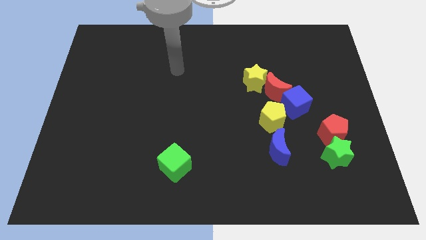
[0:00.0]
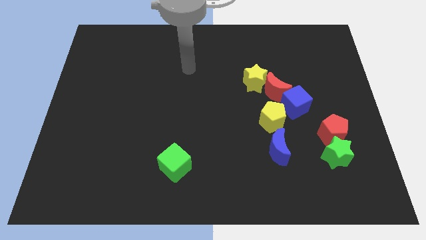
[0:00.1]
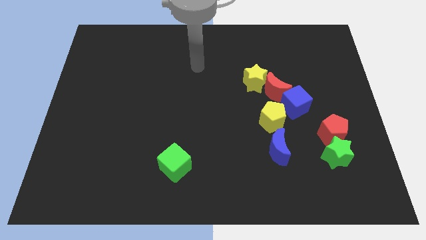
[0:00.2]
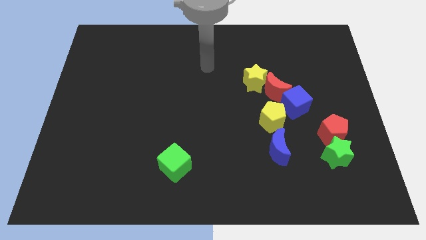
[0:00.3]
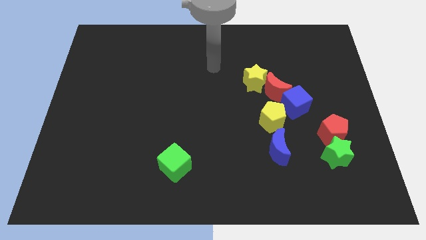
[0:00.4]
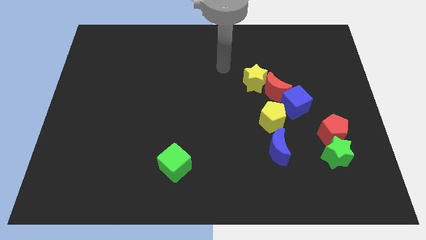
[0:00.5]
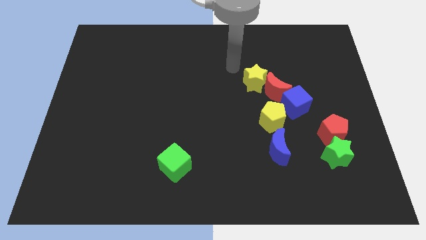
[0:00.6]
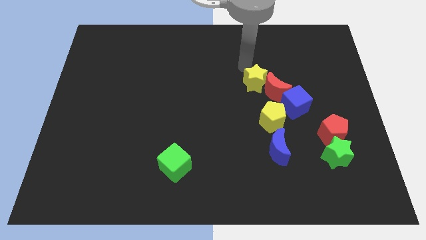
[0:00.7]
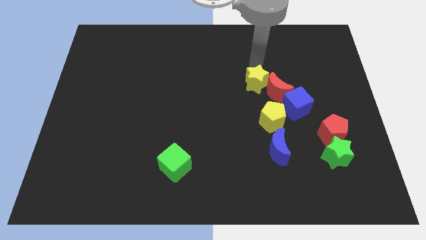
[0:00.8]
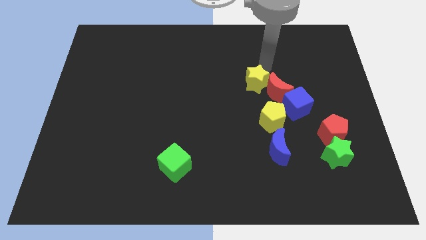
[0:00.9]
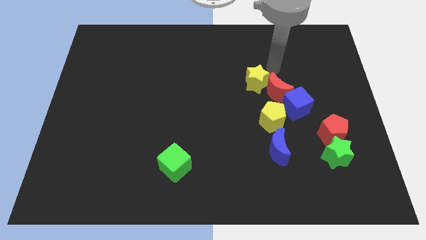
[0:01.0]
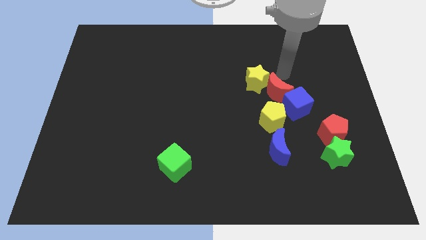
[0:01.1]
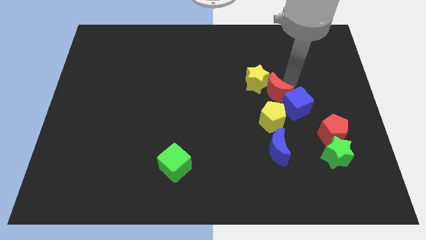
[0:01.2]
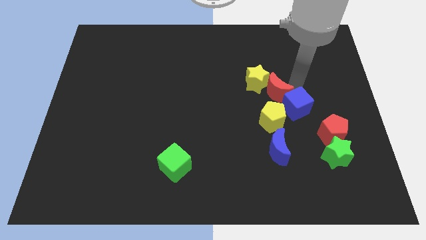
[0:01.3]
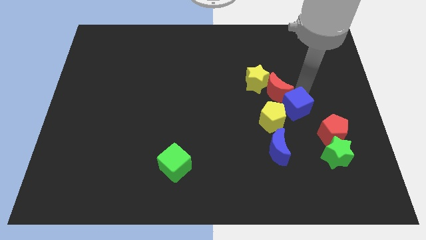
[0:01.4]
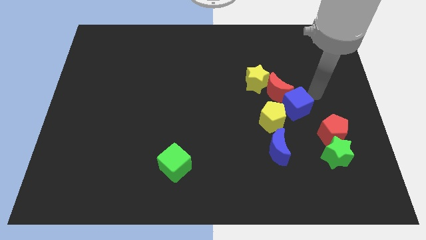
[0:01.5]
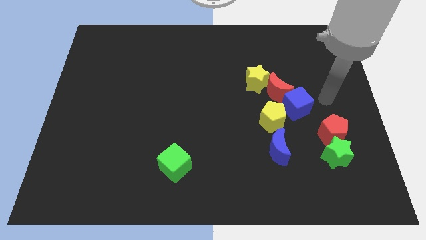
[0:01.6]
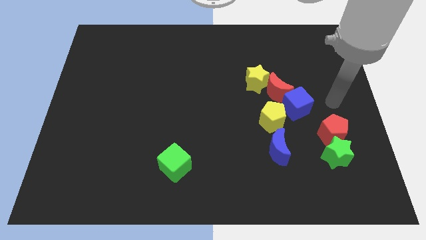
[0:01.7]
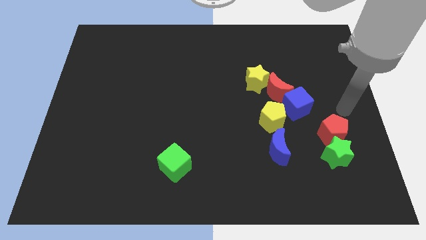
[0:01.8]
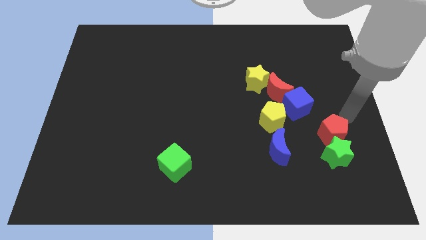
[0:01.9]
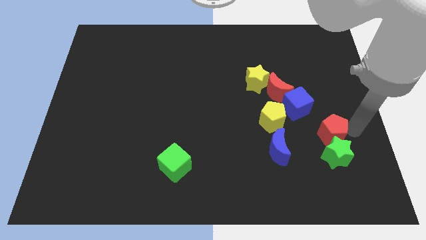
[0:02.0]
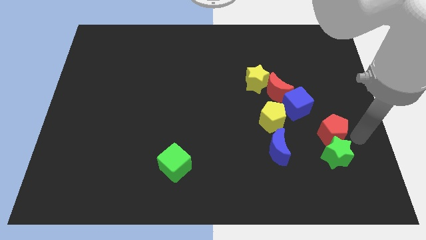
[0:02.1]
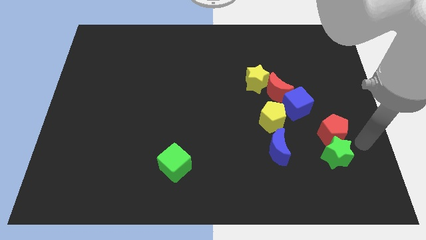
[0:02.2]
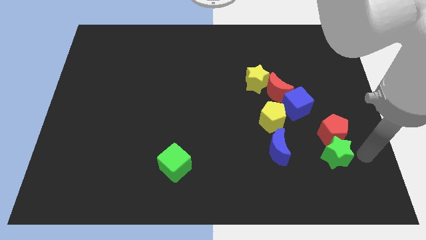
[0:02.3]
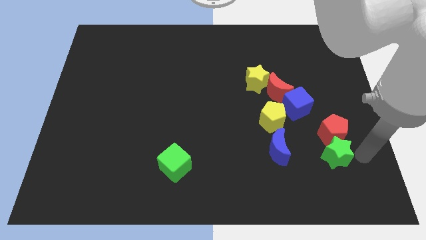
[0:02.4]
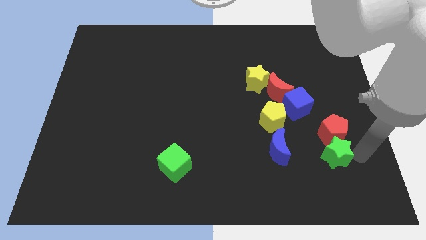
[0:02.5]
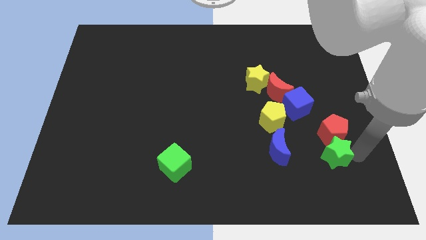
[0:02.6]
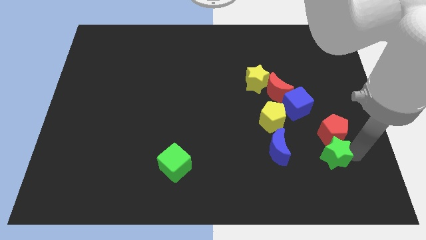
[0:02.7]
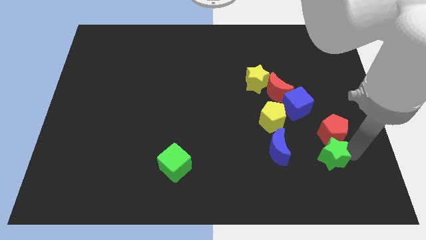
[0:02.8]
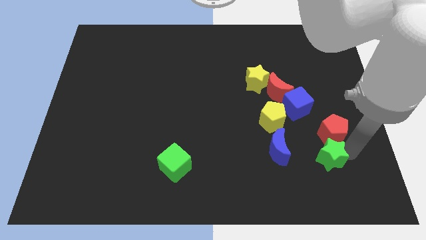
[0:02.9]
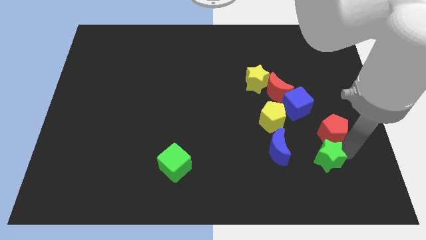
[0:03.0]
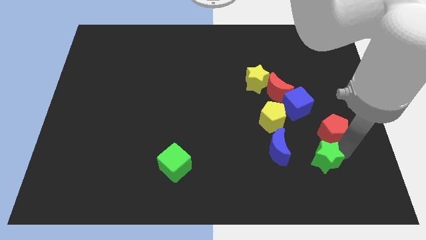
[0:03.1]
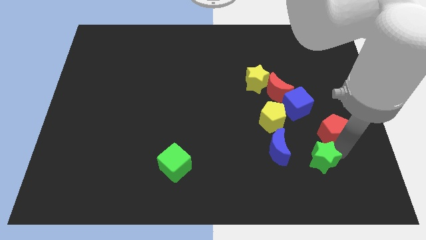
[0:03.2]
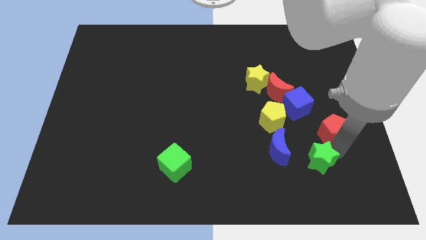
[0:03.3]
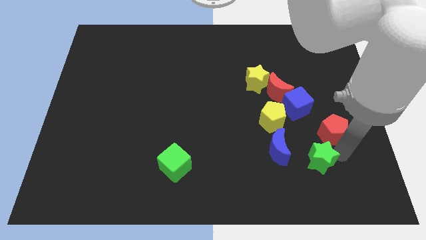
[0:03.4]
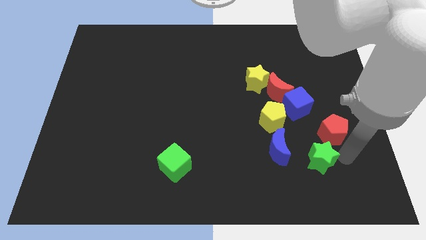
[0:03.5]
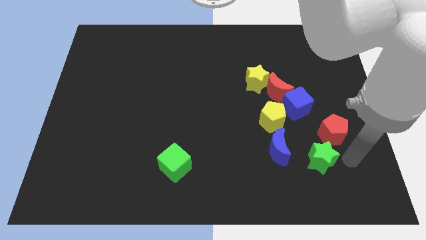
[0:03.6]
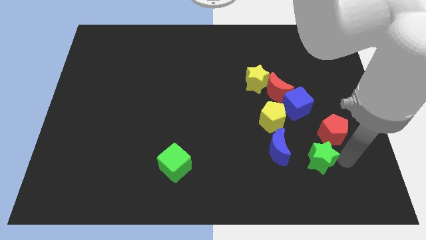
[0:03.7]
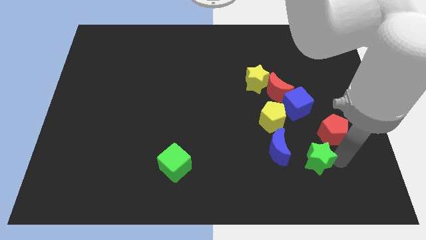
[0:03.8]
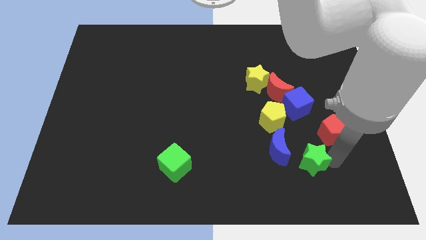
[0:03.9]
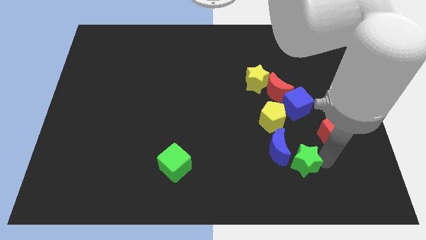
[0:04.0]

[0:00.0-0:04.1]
slightly push the green star to the left

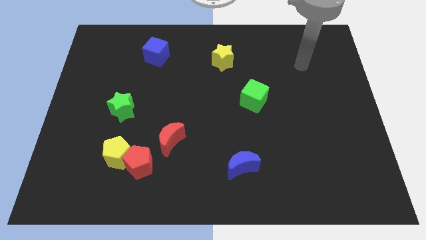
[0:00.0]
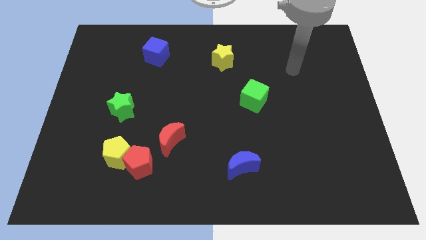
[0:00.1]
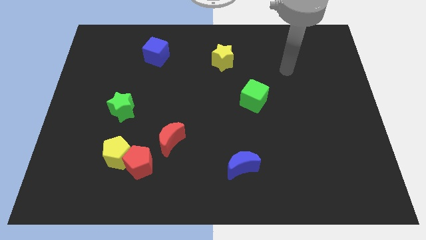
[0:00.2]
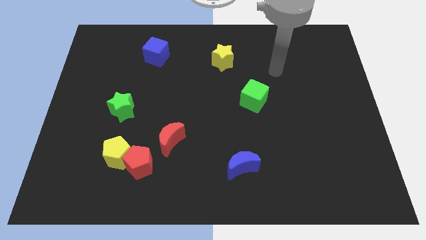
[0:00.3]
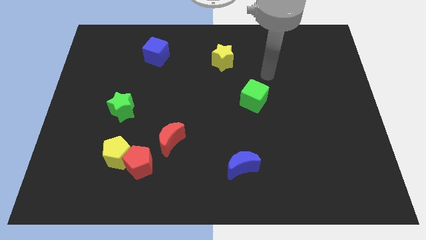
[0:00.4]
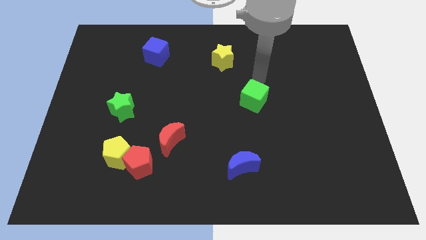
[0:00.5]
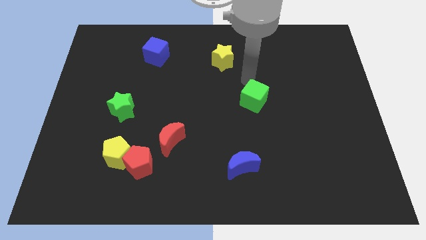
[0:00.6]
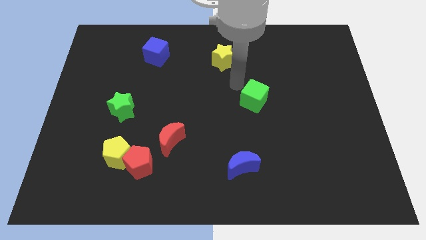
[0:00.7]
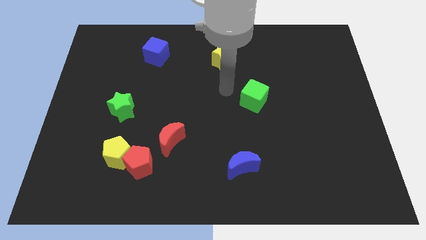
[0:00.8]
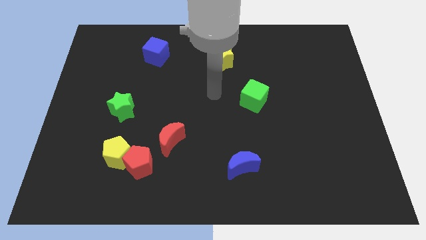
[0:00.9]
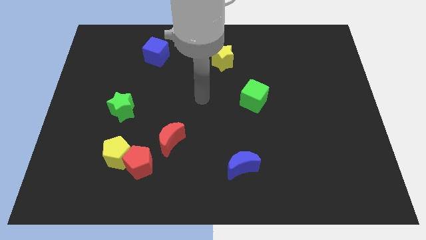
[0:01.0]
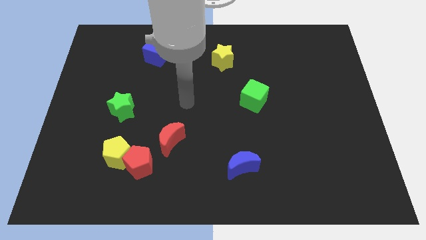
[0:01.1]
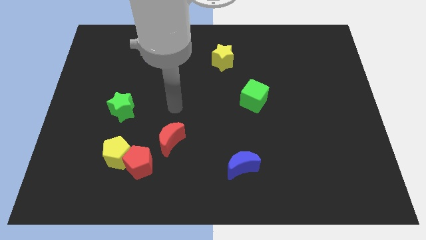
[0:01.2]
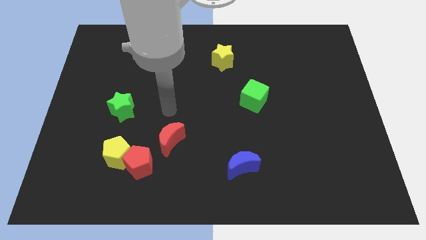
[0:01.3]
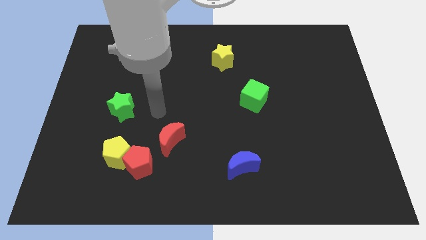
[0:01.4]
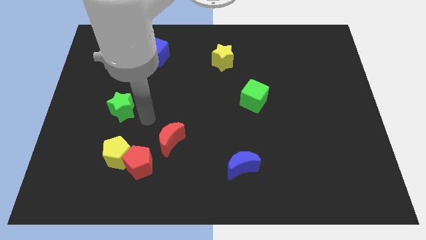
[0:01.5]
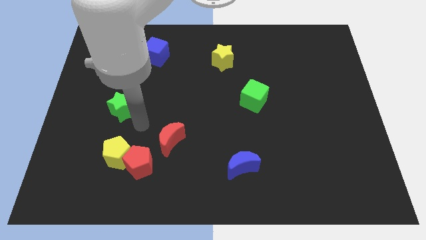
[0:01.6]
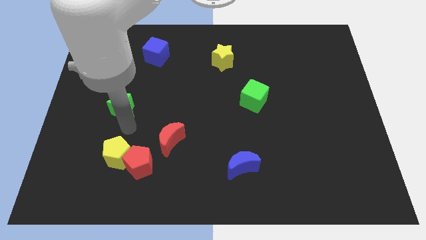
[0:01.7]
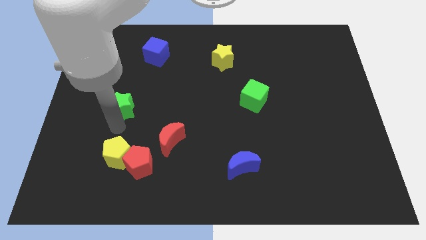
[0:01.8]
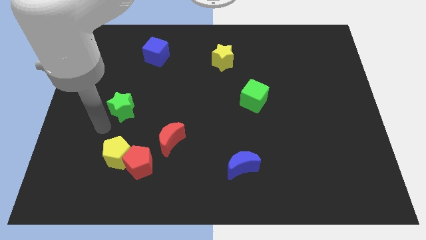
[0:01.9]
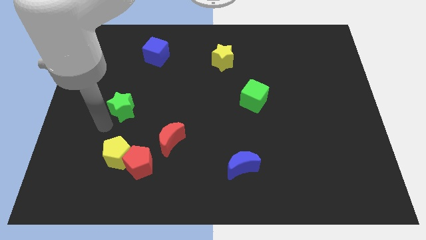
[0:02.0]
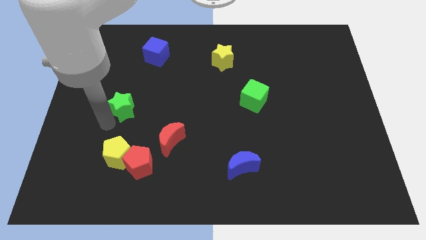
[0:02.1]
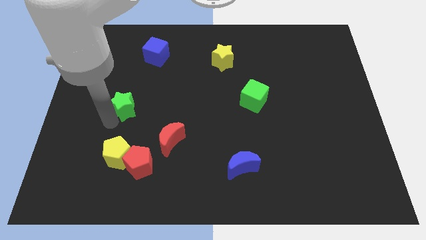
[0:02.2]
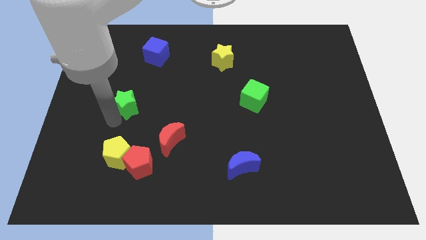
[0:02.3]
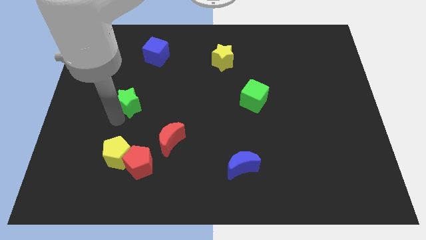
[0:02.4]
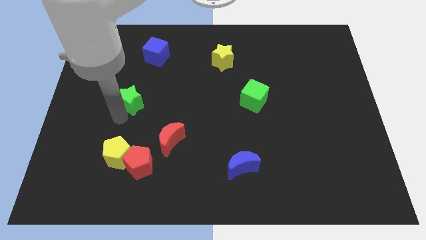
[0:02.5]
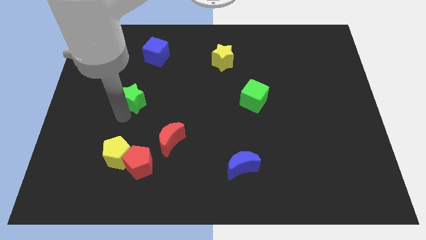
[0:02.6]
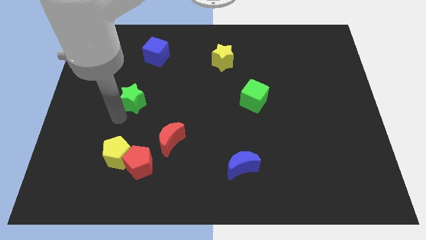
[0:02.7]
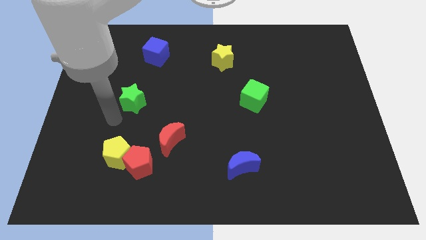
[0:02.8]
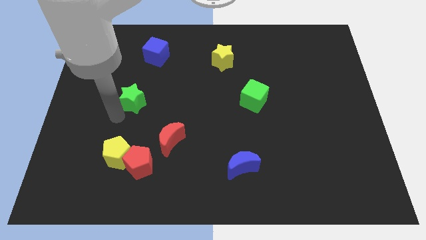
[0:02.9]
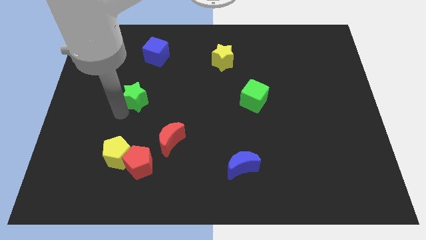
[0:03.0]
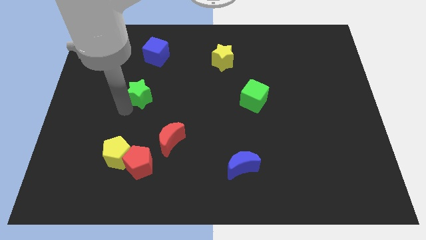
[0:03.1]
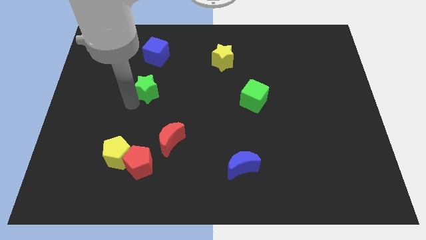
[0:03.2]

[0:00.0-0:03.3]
slightly slide the green star diagonally up and to the right

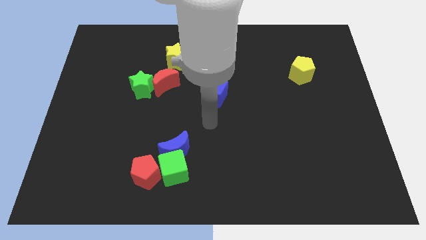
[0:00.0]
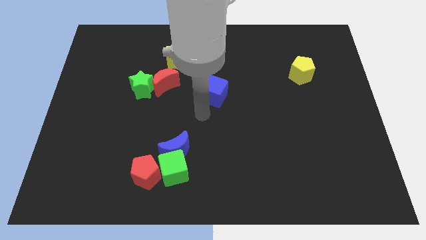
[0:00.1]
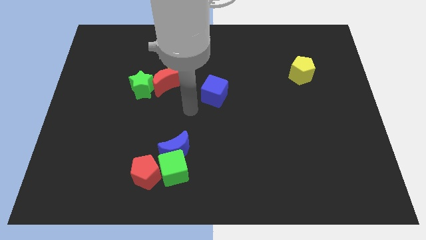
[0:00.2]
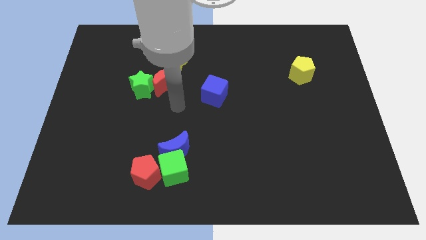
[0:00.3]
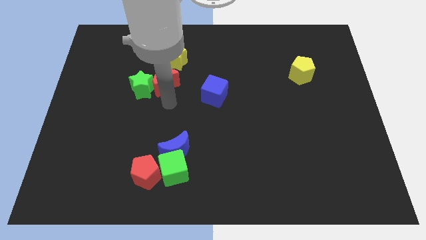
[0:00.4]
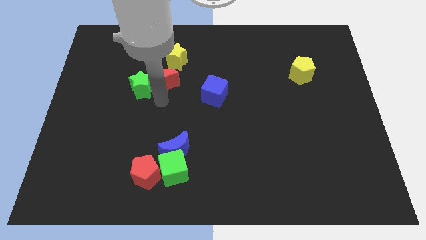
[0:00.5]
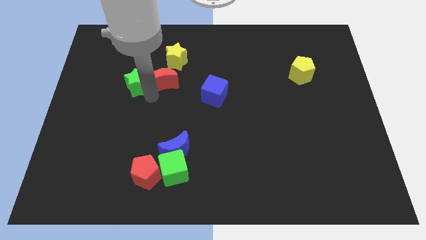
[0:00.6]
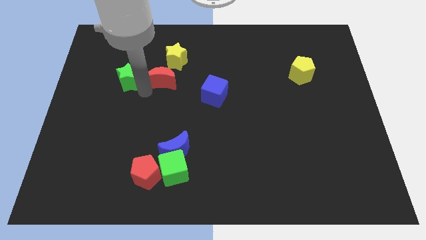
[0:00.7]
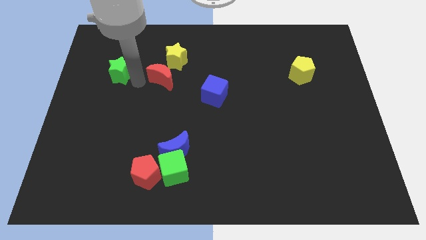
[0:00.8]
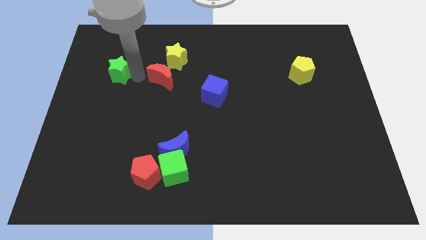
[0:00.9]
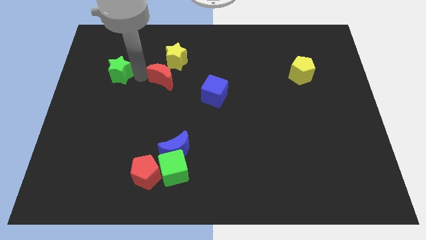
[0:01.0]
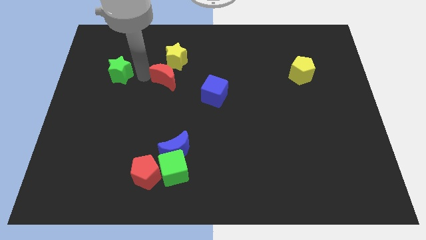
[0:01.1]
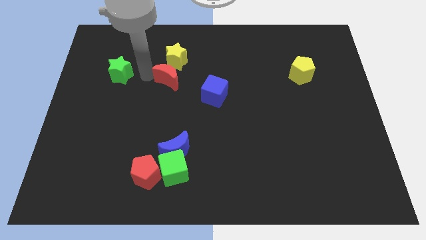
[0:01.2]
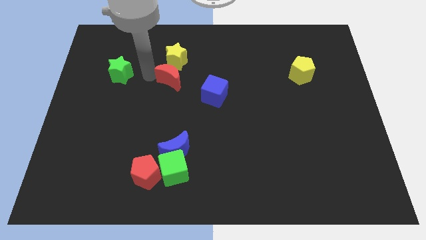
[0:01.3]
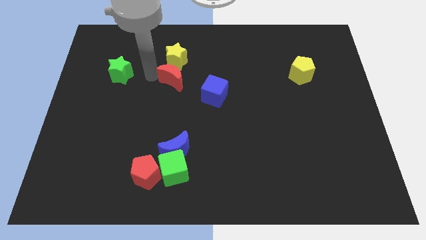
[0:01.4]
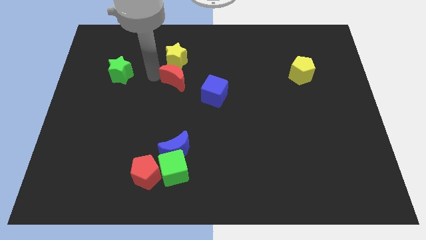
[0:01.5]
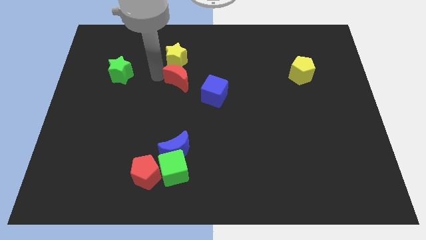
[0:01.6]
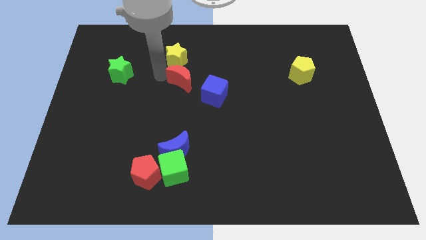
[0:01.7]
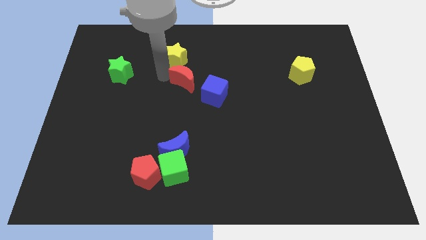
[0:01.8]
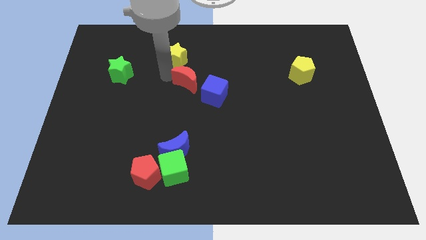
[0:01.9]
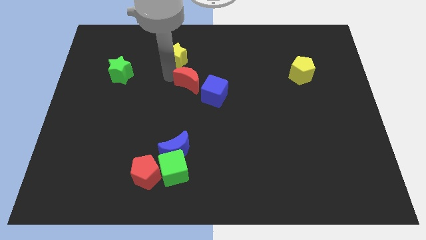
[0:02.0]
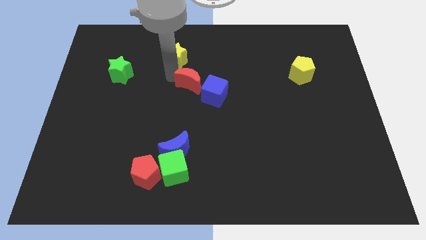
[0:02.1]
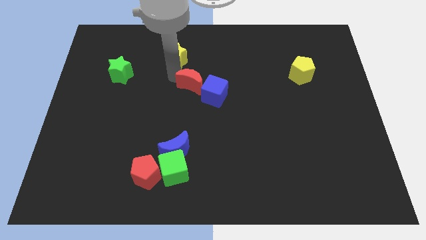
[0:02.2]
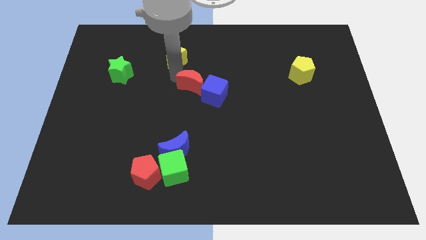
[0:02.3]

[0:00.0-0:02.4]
push the red moon a little to the right
